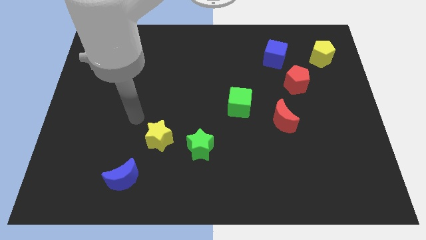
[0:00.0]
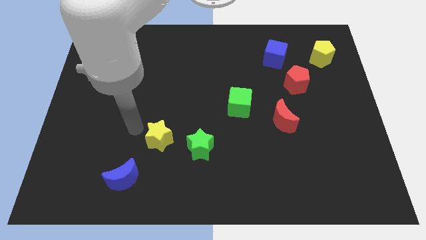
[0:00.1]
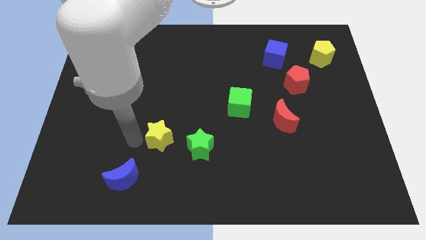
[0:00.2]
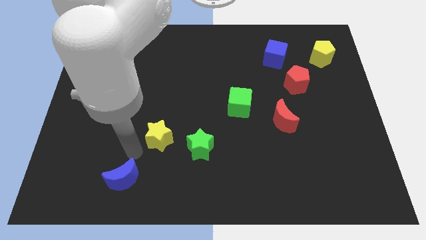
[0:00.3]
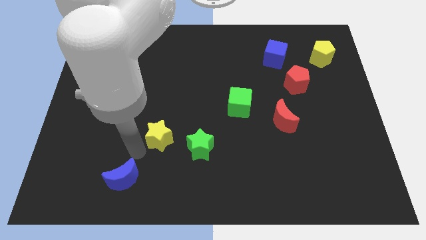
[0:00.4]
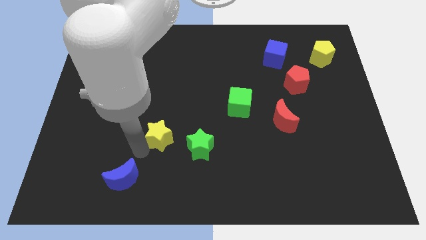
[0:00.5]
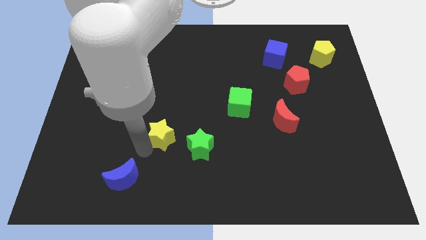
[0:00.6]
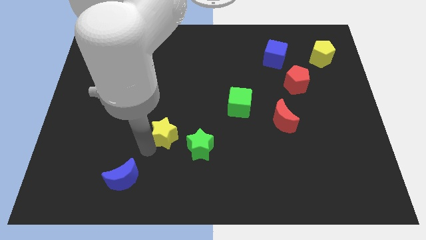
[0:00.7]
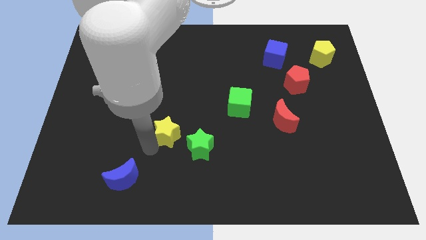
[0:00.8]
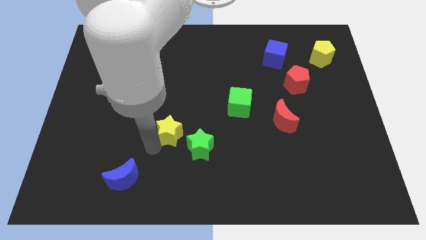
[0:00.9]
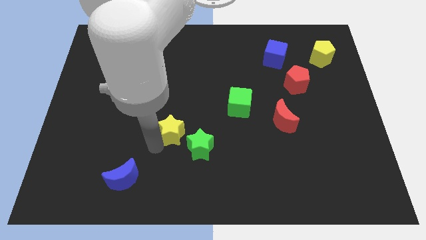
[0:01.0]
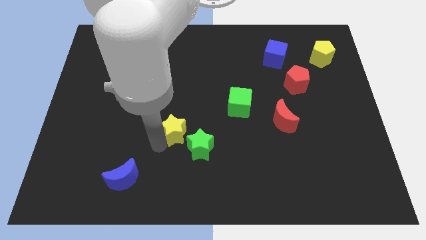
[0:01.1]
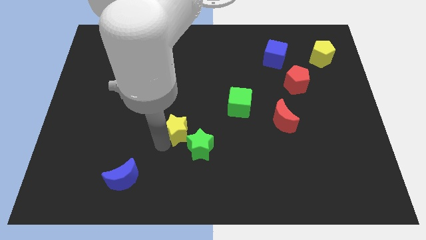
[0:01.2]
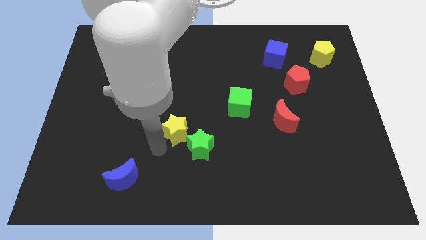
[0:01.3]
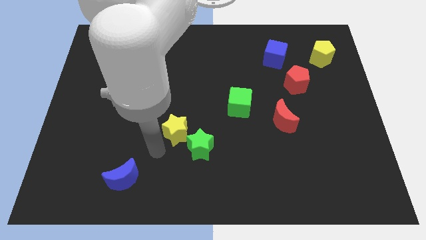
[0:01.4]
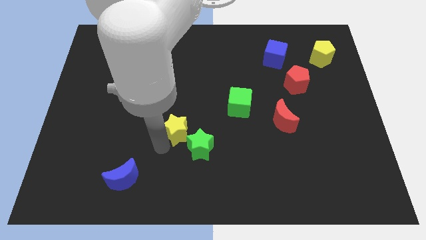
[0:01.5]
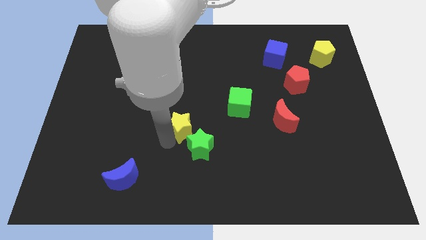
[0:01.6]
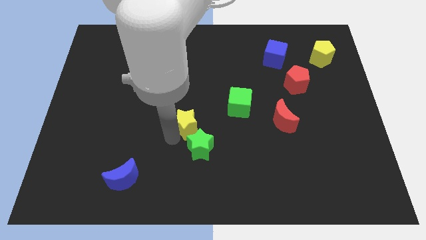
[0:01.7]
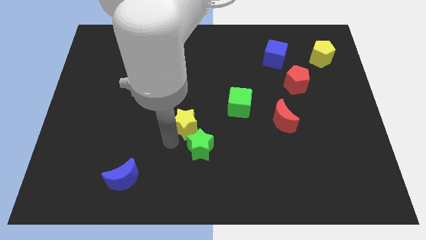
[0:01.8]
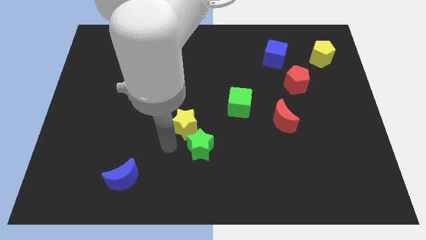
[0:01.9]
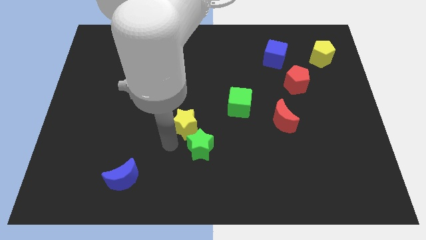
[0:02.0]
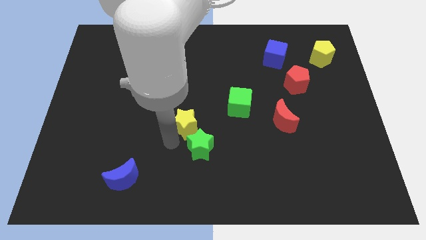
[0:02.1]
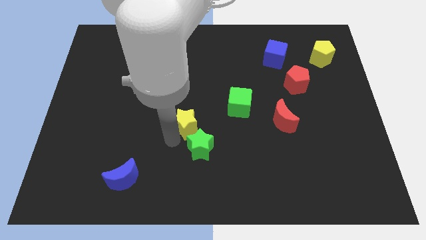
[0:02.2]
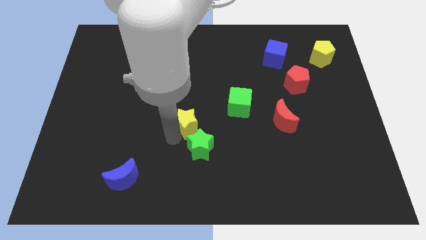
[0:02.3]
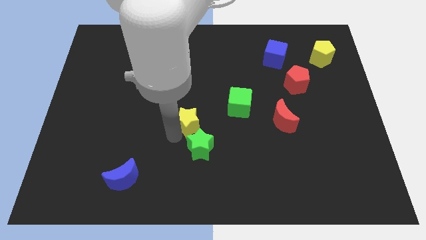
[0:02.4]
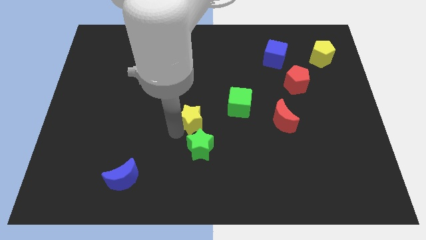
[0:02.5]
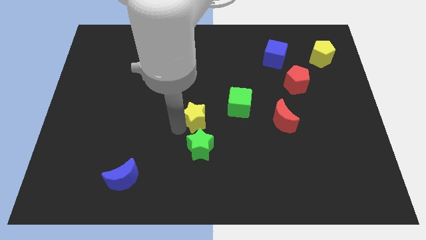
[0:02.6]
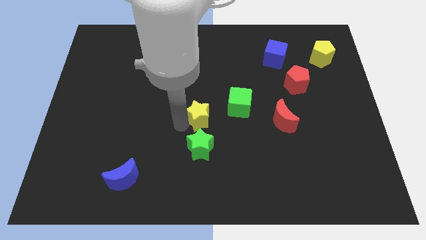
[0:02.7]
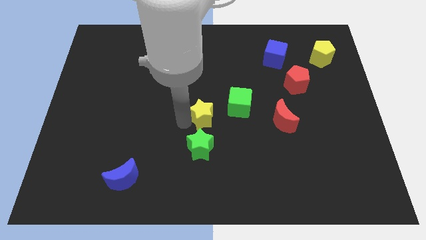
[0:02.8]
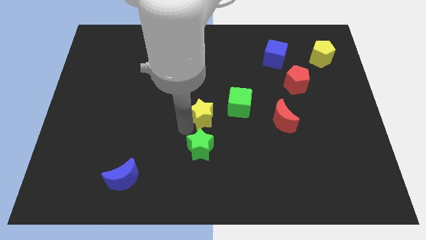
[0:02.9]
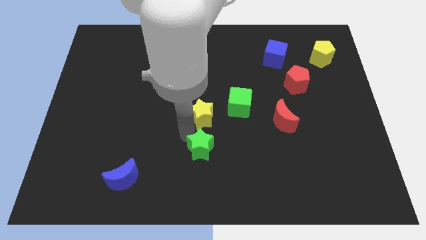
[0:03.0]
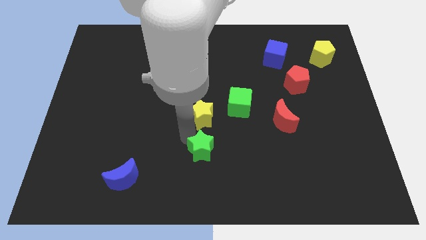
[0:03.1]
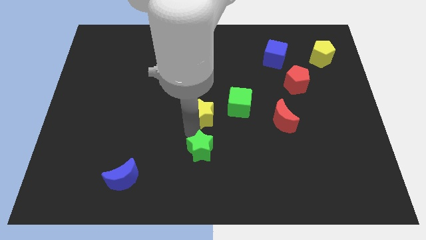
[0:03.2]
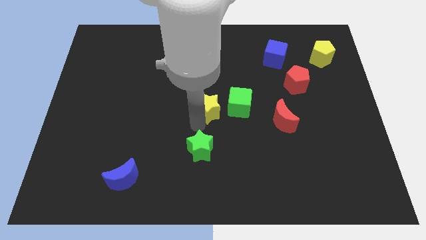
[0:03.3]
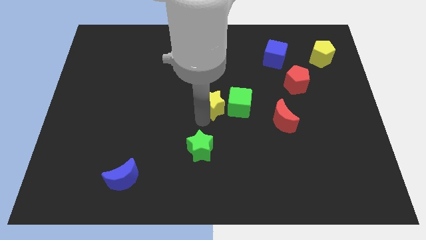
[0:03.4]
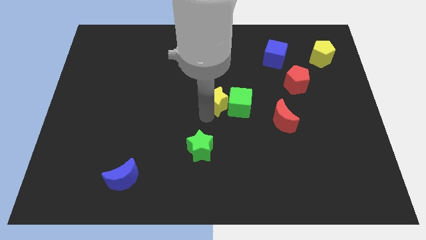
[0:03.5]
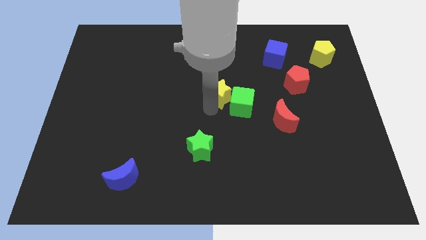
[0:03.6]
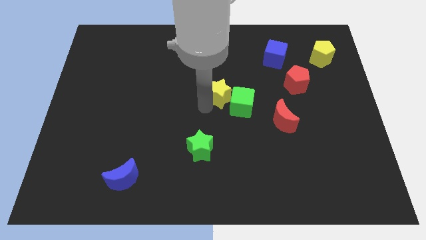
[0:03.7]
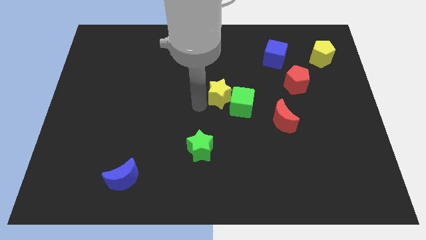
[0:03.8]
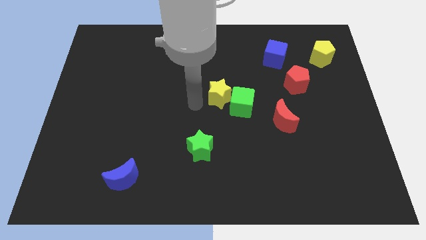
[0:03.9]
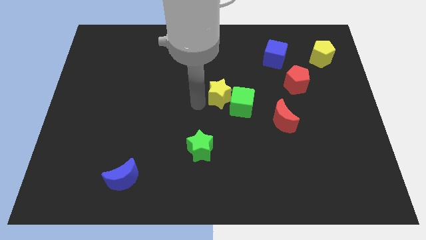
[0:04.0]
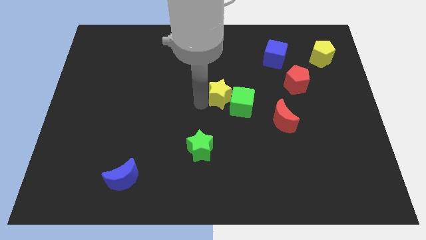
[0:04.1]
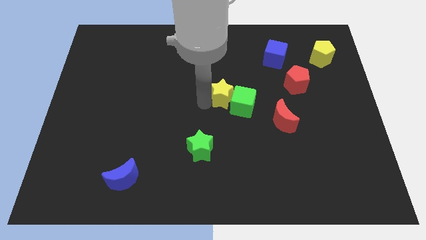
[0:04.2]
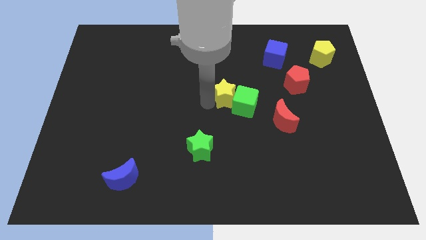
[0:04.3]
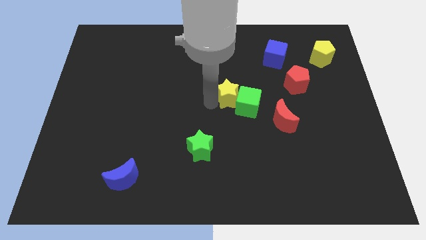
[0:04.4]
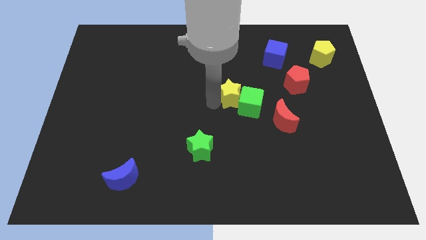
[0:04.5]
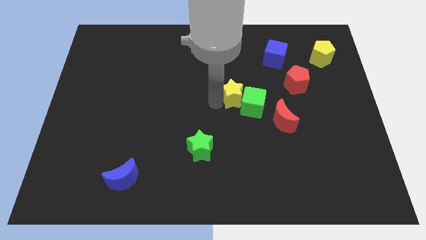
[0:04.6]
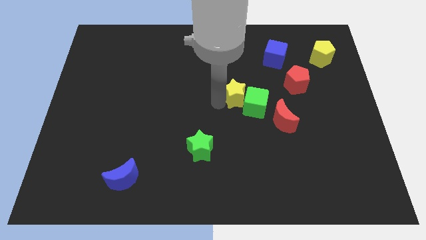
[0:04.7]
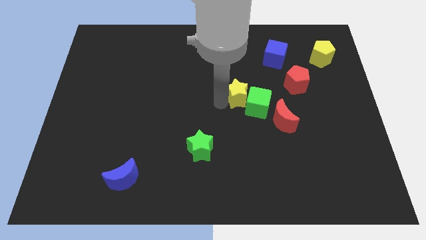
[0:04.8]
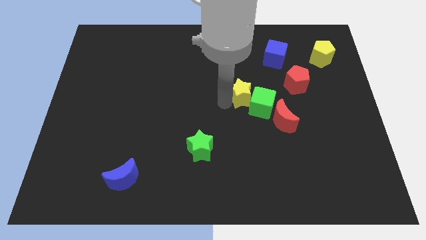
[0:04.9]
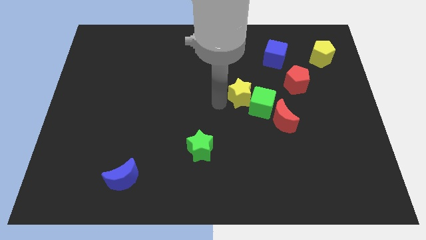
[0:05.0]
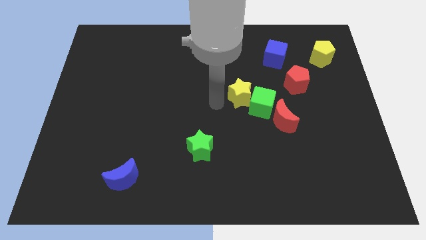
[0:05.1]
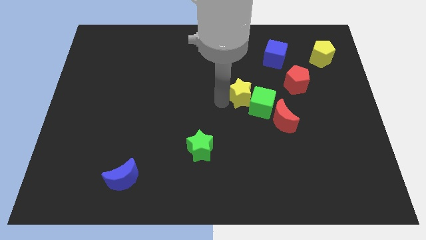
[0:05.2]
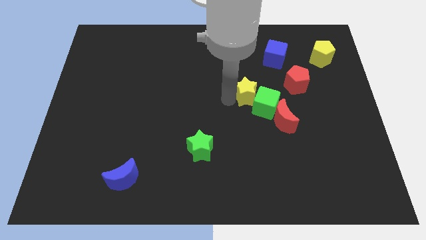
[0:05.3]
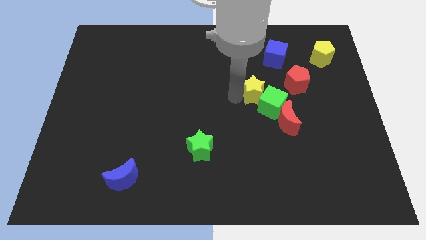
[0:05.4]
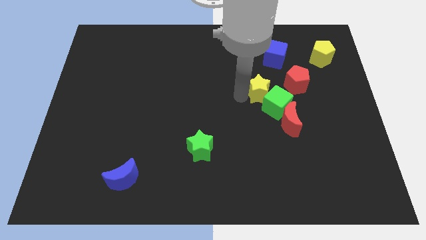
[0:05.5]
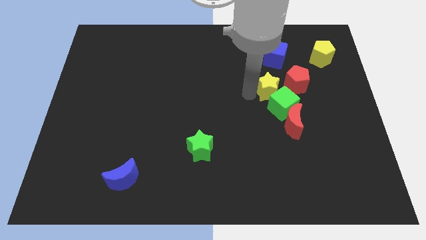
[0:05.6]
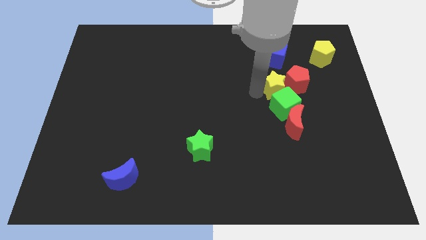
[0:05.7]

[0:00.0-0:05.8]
push the yellow star towards the red pentagon

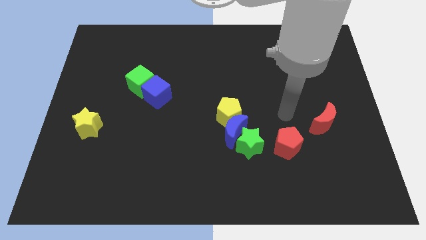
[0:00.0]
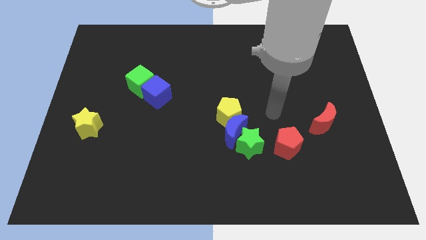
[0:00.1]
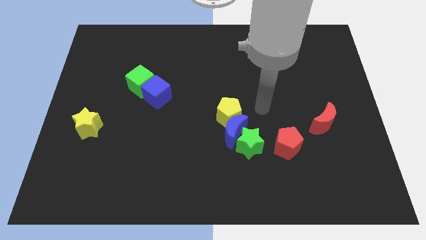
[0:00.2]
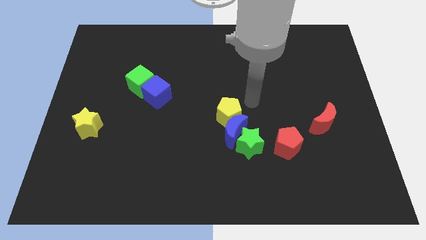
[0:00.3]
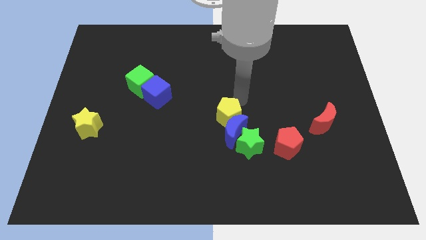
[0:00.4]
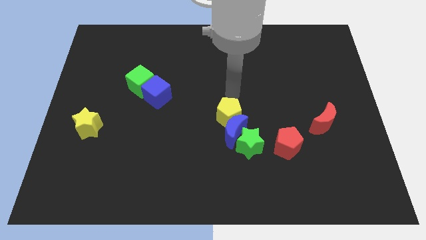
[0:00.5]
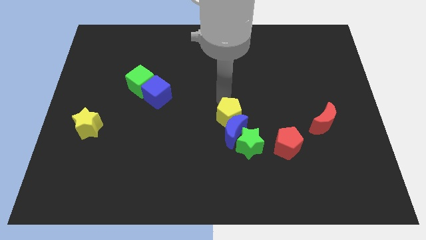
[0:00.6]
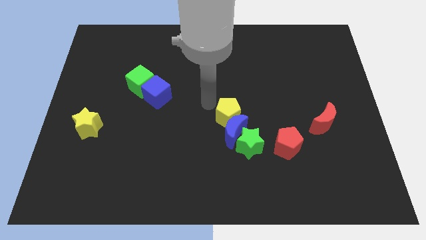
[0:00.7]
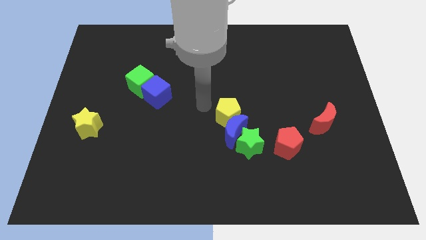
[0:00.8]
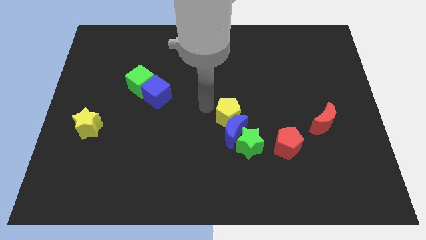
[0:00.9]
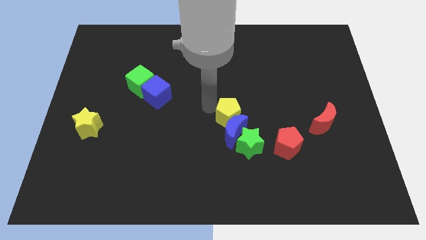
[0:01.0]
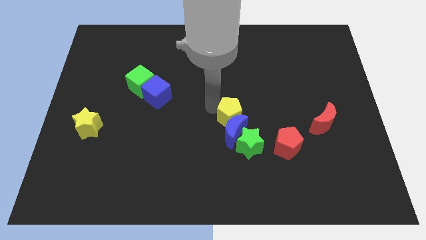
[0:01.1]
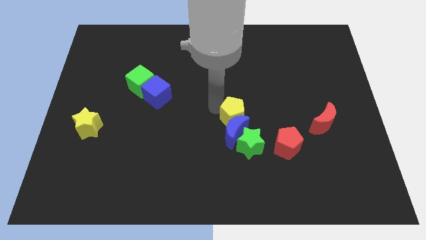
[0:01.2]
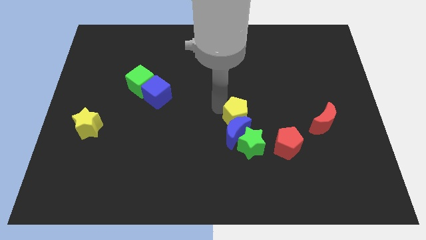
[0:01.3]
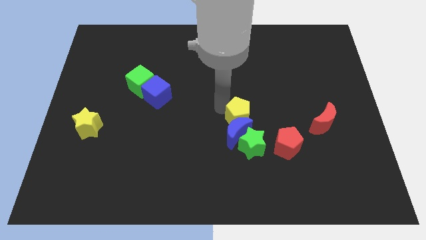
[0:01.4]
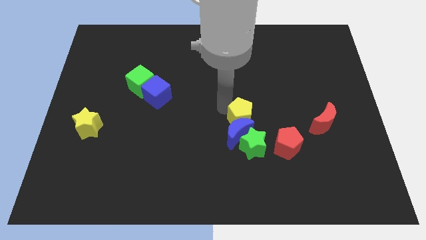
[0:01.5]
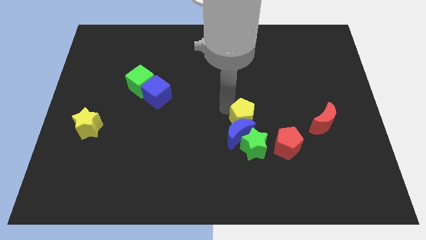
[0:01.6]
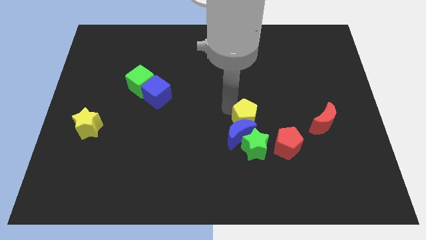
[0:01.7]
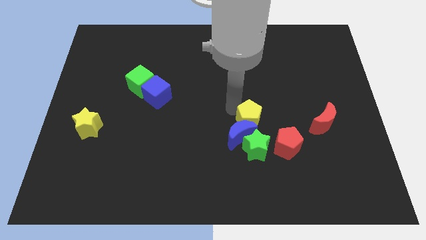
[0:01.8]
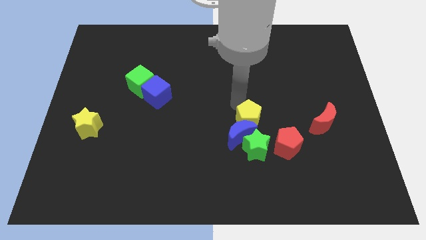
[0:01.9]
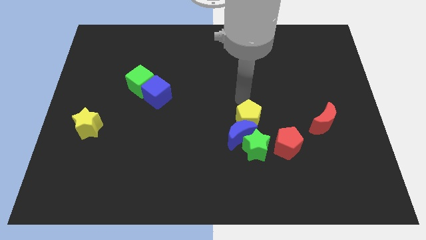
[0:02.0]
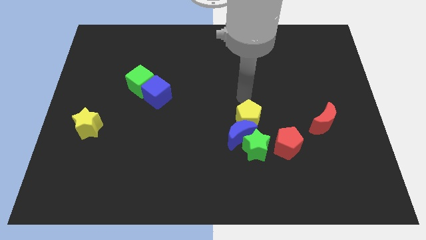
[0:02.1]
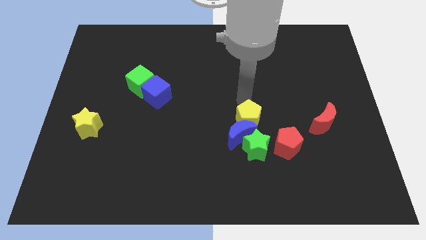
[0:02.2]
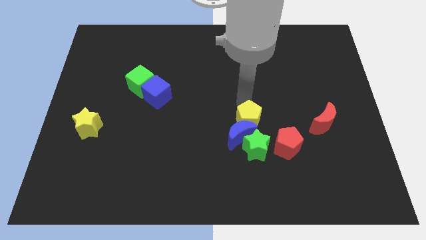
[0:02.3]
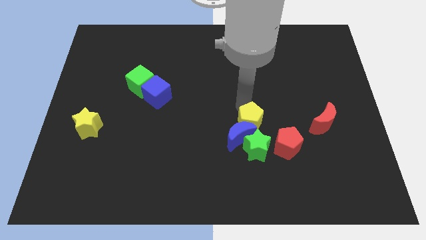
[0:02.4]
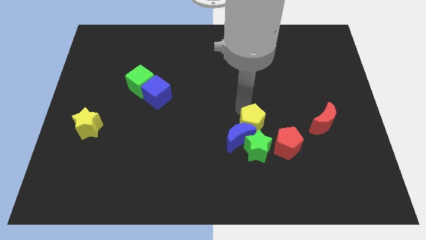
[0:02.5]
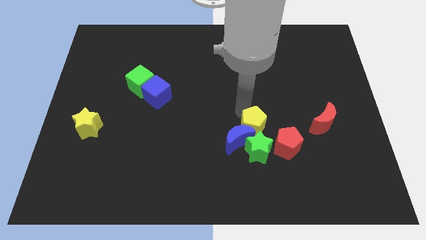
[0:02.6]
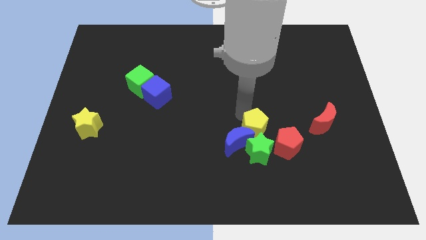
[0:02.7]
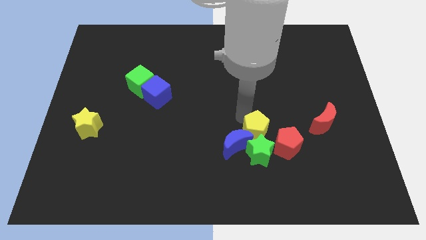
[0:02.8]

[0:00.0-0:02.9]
put the yellow pentagon next to the green star
